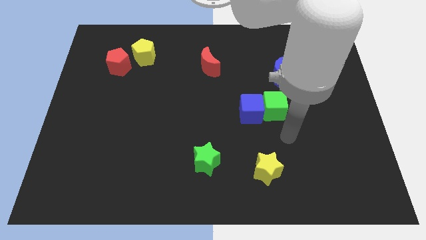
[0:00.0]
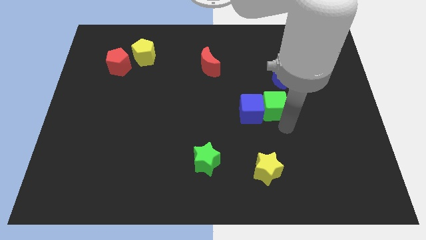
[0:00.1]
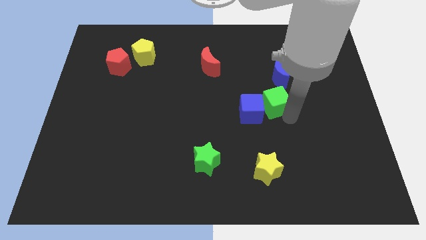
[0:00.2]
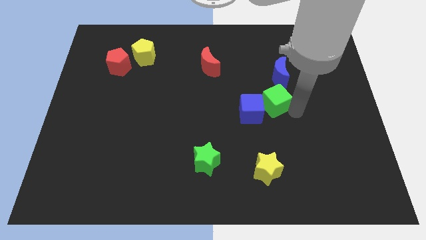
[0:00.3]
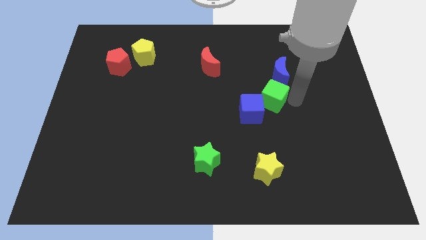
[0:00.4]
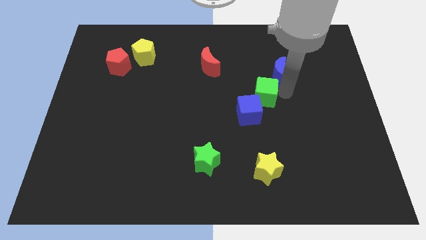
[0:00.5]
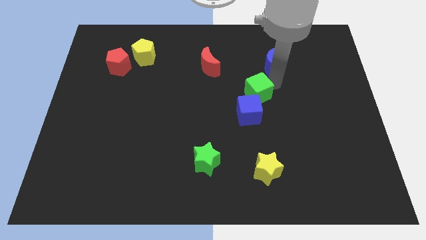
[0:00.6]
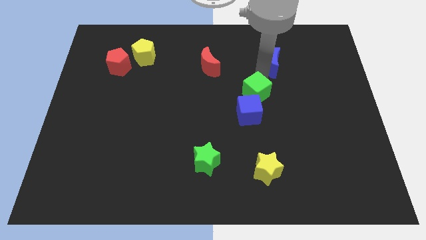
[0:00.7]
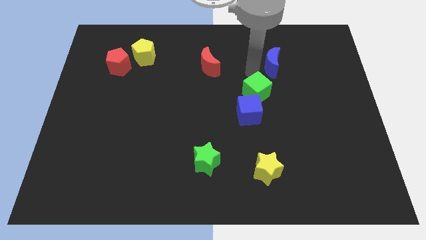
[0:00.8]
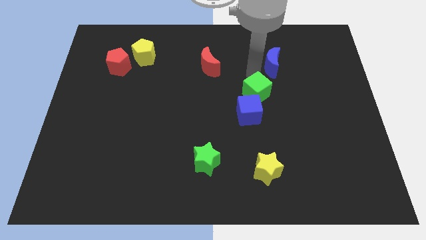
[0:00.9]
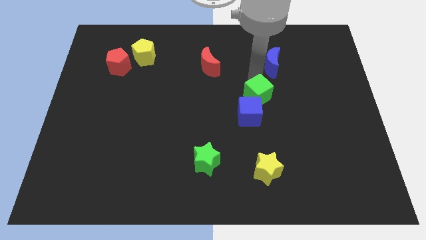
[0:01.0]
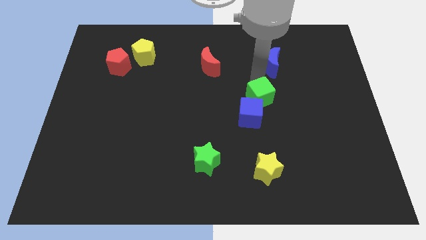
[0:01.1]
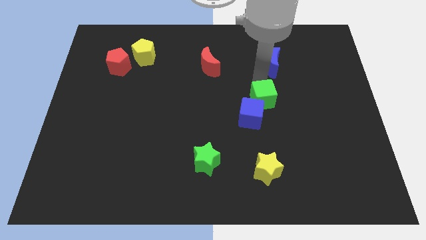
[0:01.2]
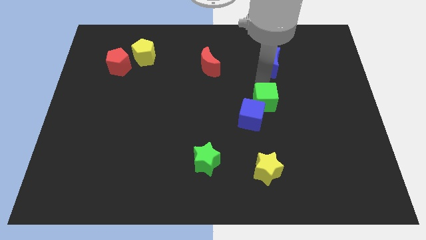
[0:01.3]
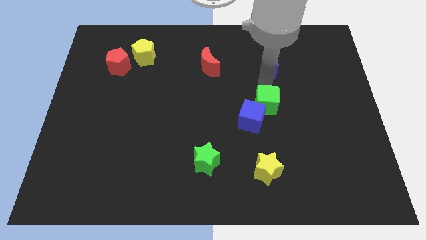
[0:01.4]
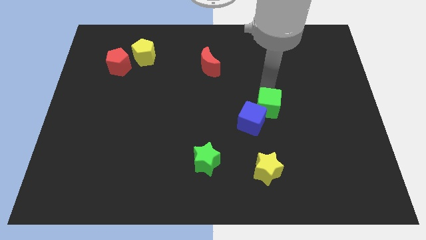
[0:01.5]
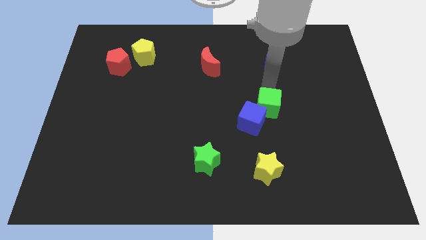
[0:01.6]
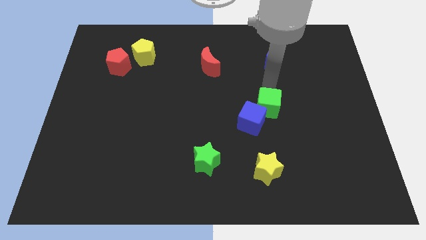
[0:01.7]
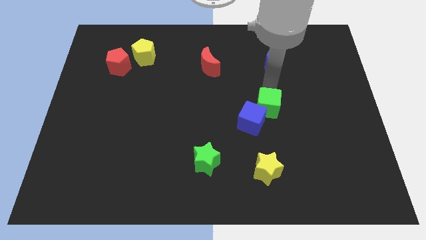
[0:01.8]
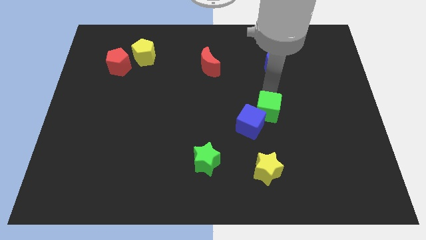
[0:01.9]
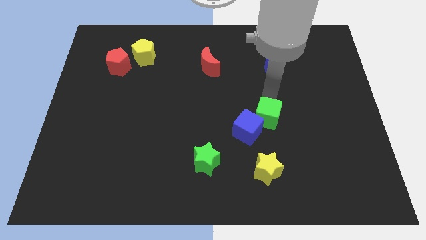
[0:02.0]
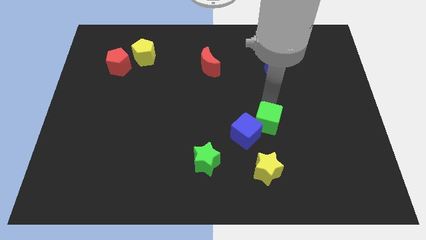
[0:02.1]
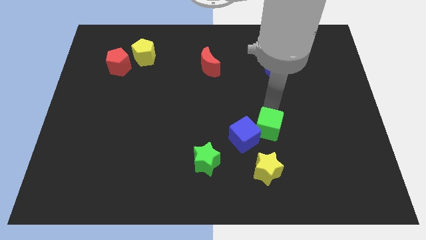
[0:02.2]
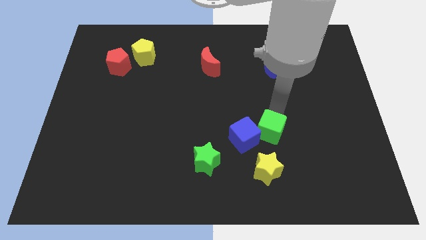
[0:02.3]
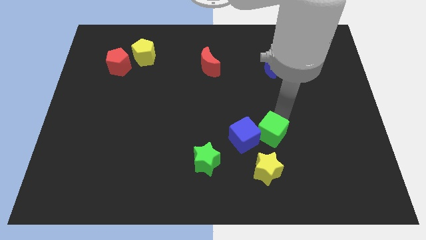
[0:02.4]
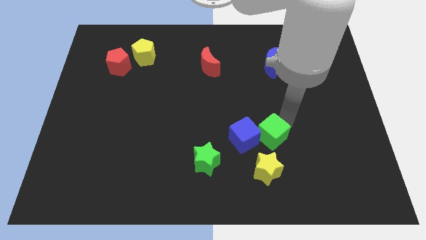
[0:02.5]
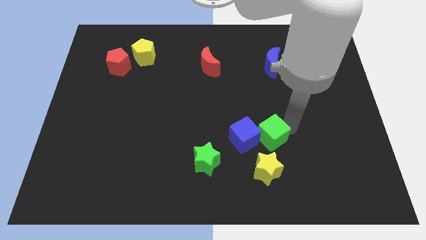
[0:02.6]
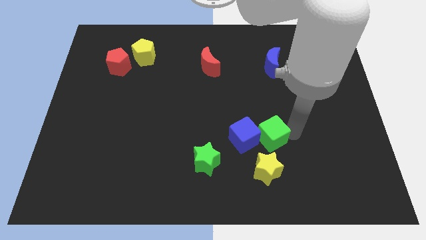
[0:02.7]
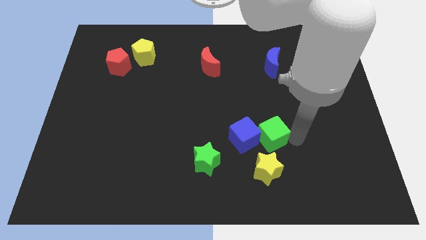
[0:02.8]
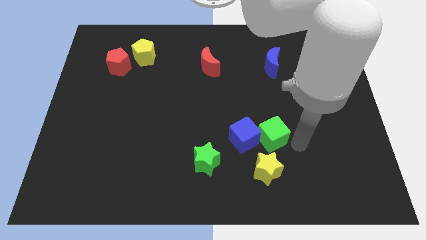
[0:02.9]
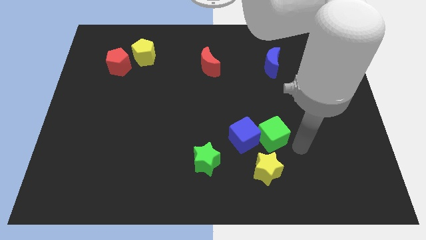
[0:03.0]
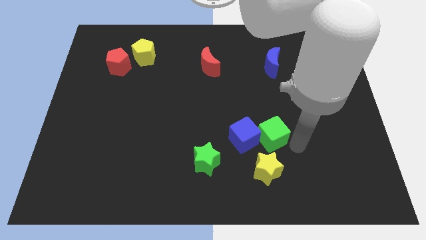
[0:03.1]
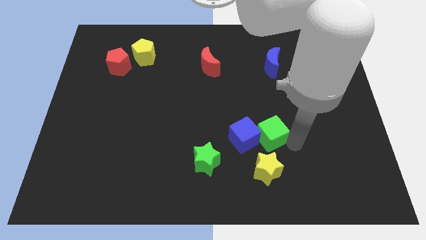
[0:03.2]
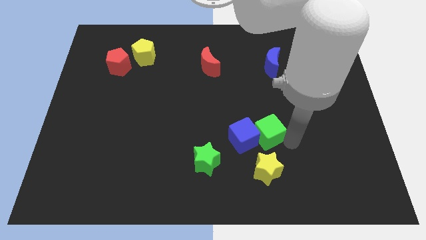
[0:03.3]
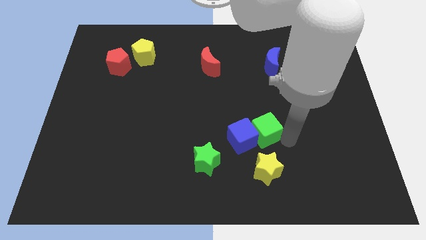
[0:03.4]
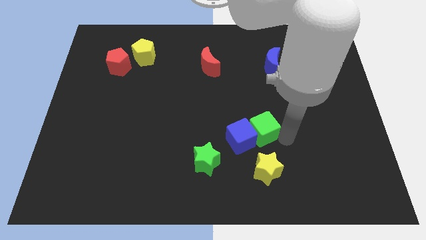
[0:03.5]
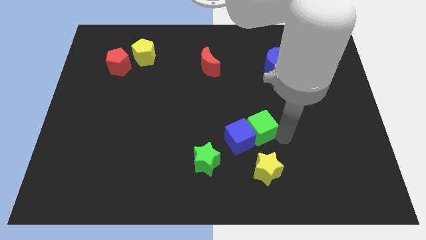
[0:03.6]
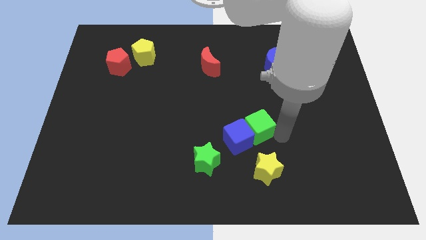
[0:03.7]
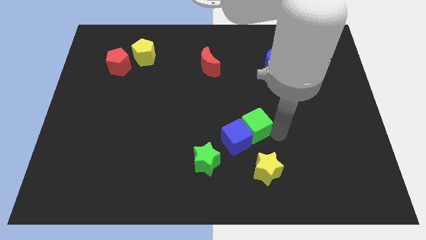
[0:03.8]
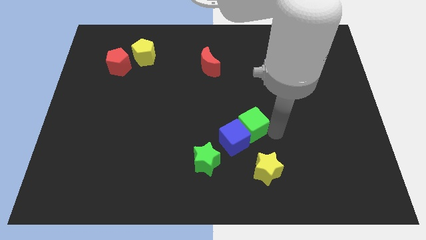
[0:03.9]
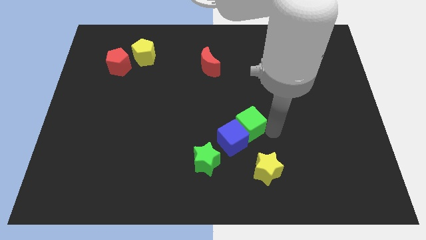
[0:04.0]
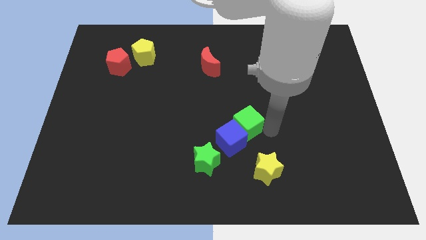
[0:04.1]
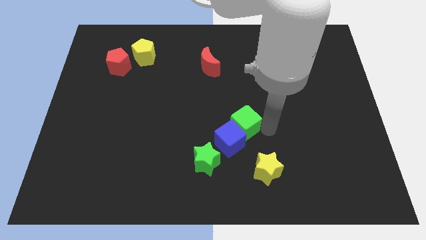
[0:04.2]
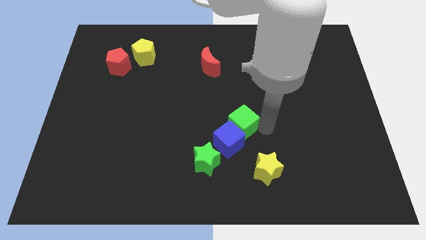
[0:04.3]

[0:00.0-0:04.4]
slightly move the green cube to the left

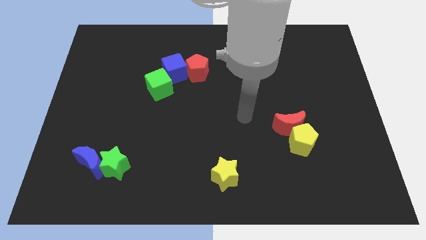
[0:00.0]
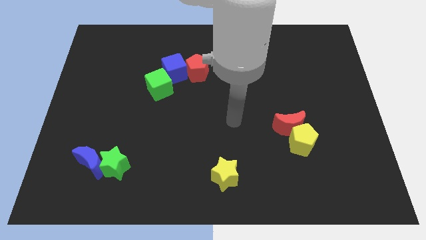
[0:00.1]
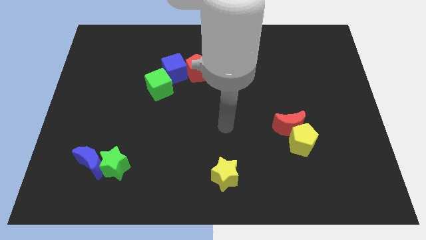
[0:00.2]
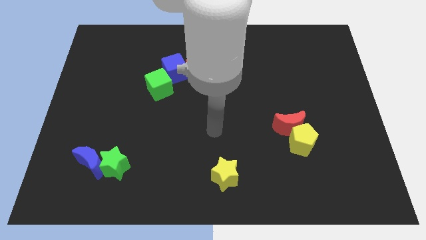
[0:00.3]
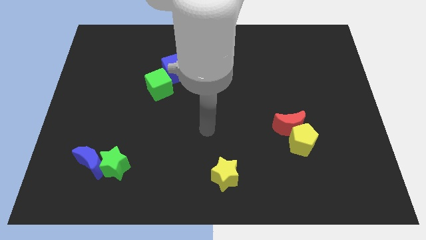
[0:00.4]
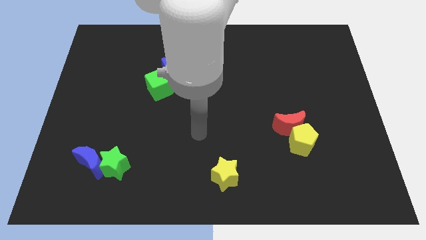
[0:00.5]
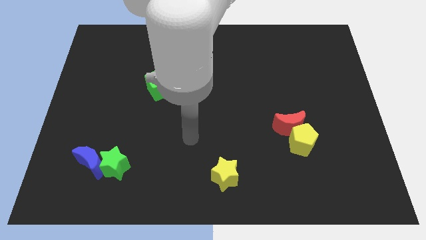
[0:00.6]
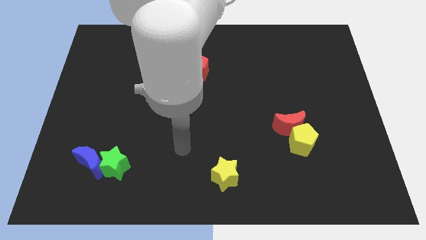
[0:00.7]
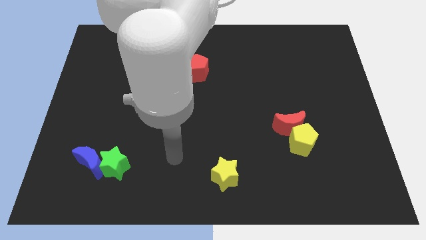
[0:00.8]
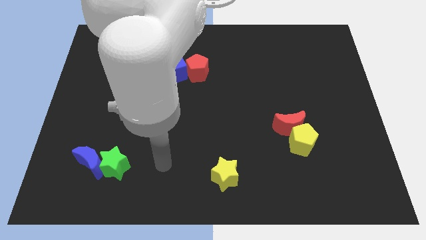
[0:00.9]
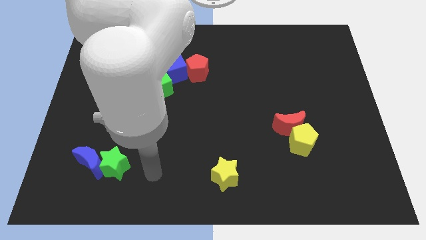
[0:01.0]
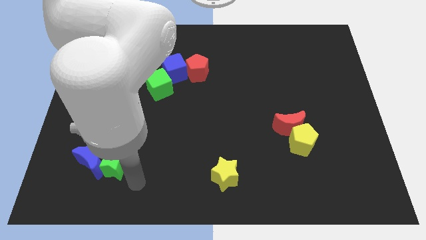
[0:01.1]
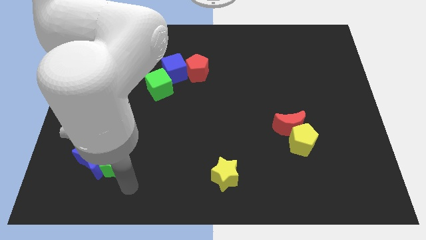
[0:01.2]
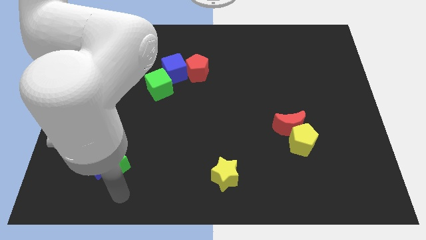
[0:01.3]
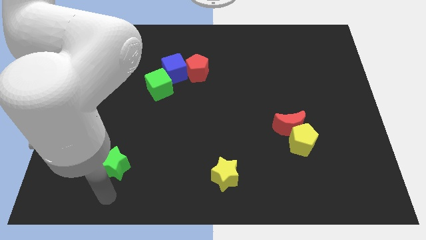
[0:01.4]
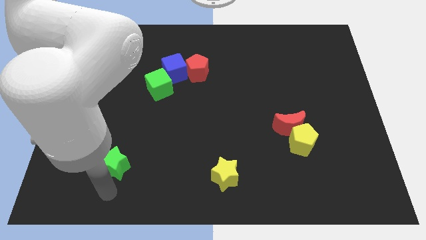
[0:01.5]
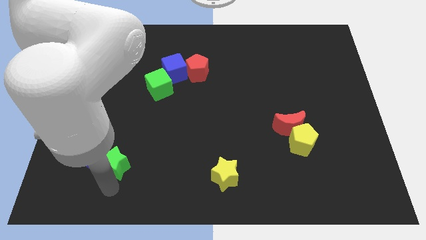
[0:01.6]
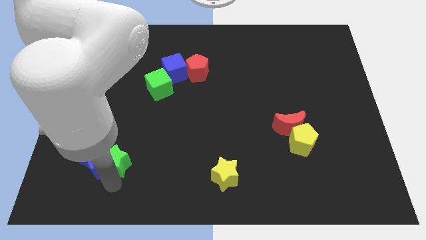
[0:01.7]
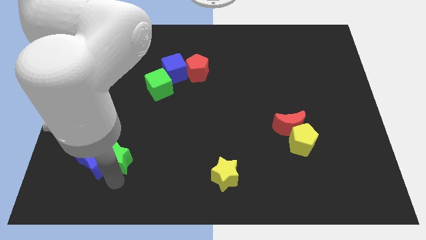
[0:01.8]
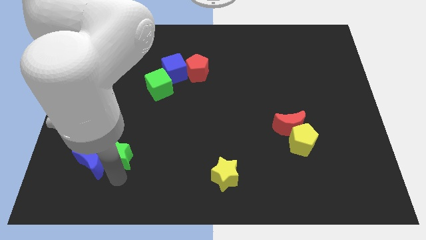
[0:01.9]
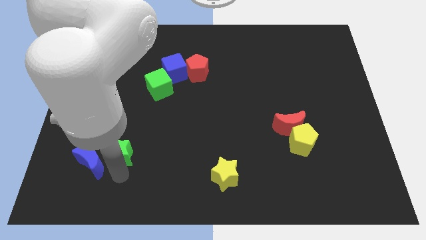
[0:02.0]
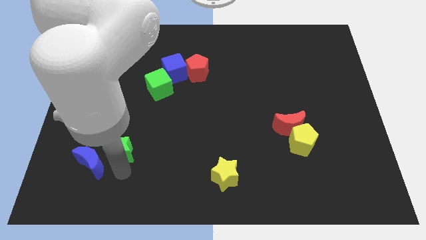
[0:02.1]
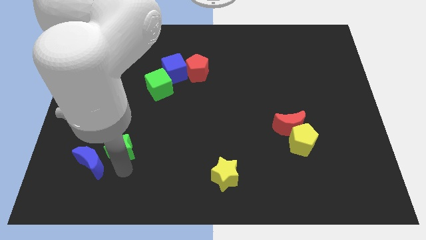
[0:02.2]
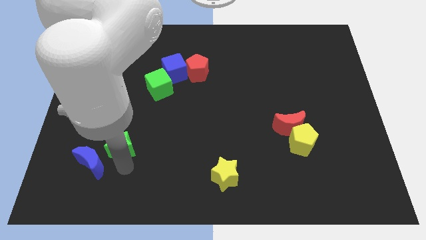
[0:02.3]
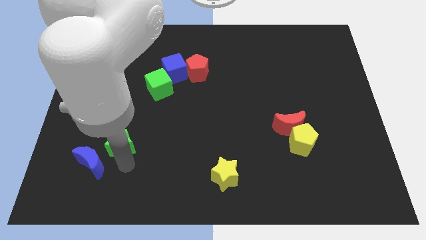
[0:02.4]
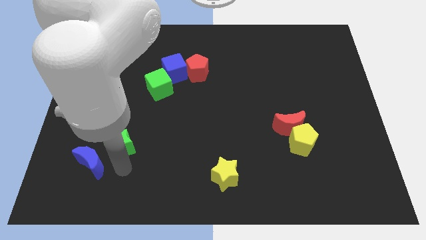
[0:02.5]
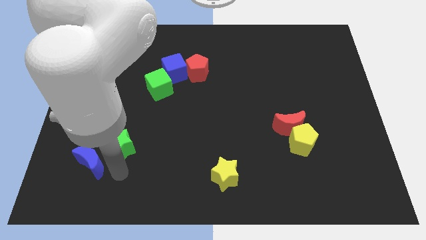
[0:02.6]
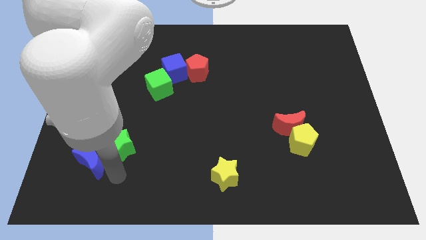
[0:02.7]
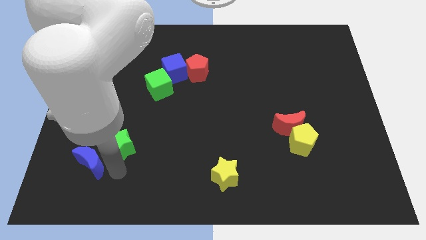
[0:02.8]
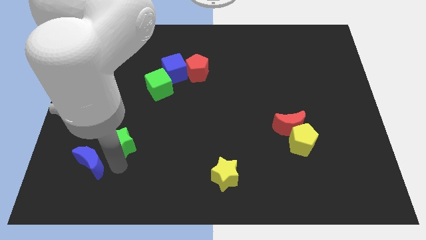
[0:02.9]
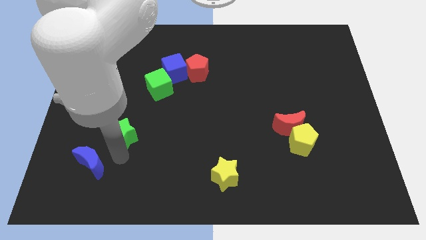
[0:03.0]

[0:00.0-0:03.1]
slightly slide the green star up

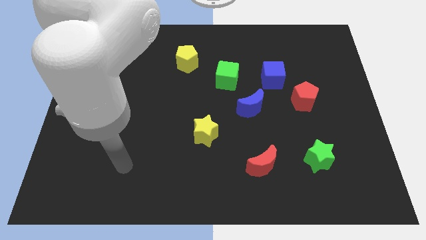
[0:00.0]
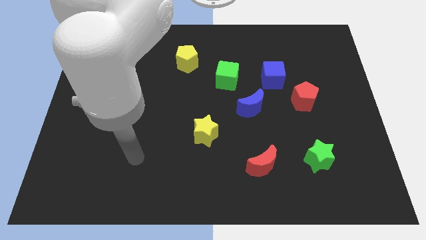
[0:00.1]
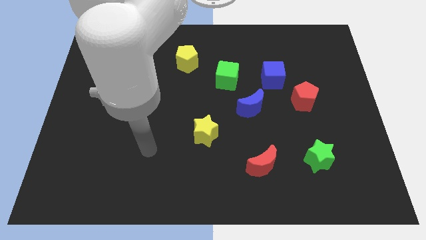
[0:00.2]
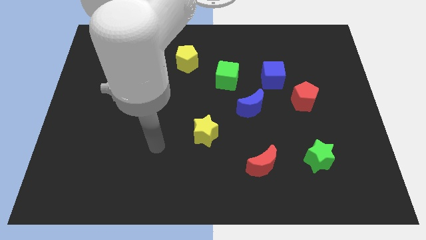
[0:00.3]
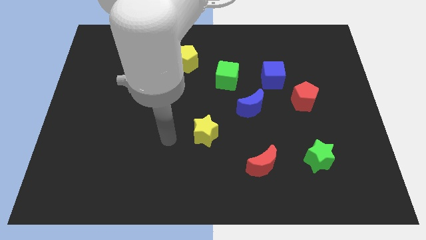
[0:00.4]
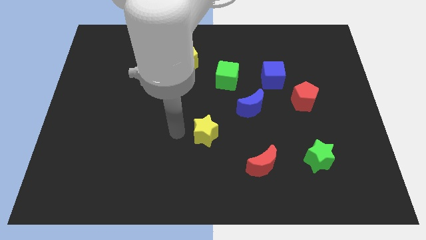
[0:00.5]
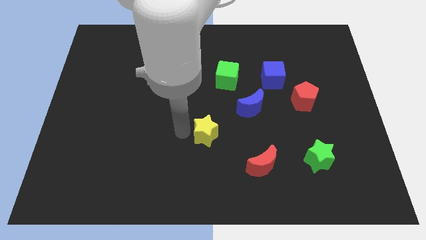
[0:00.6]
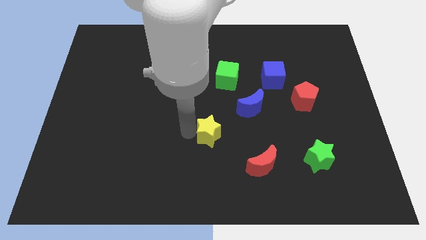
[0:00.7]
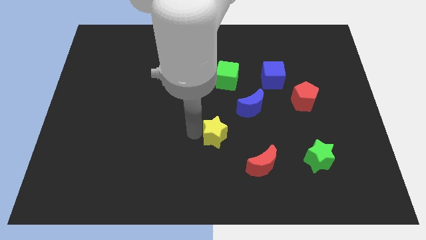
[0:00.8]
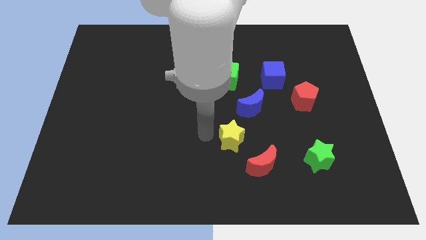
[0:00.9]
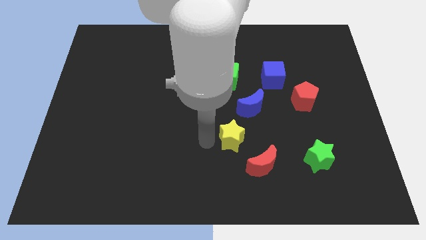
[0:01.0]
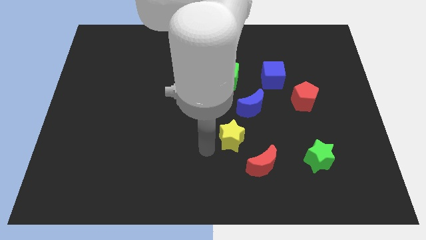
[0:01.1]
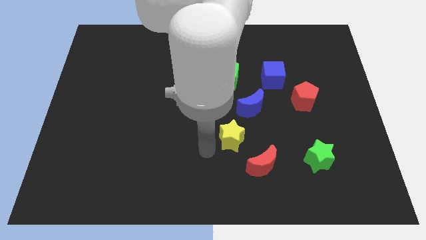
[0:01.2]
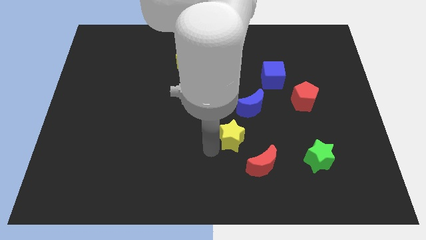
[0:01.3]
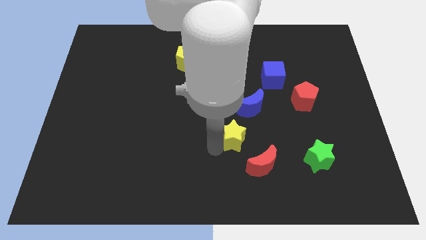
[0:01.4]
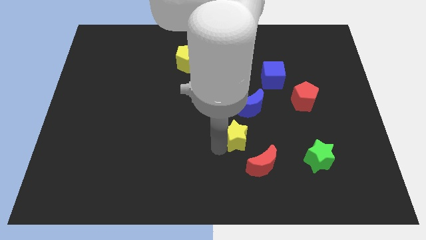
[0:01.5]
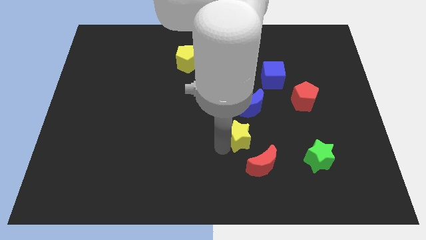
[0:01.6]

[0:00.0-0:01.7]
move the yellow star right a little
